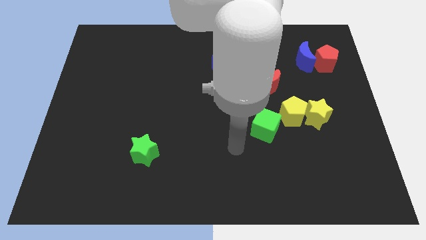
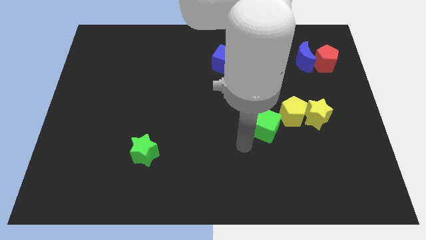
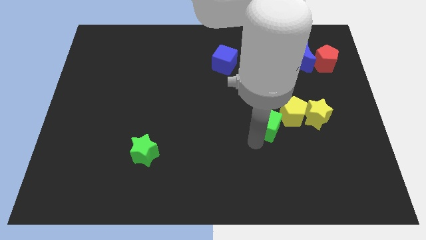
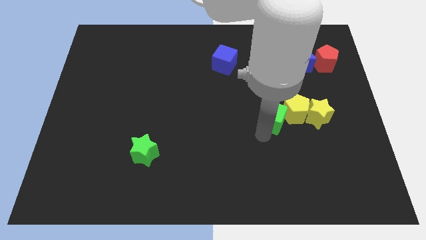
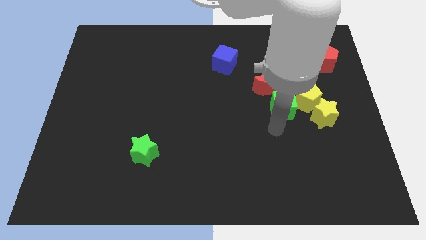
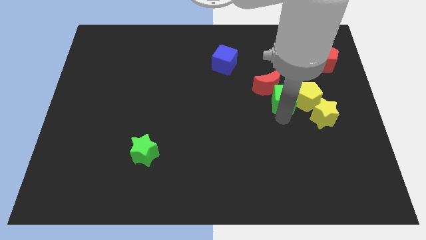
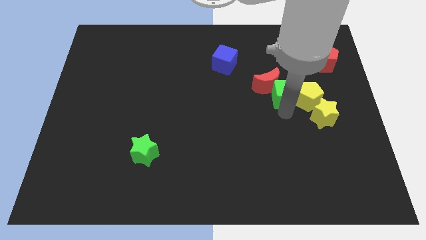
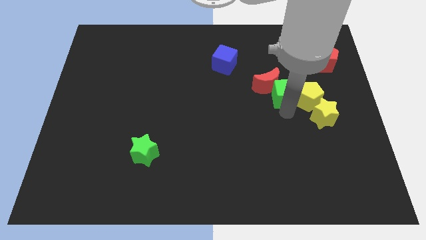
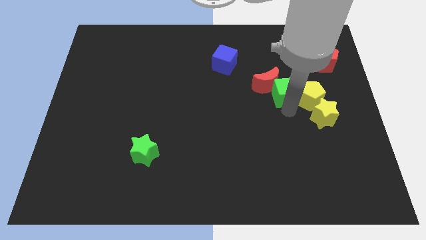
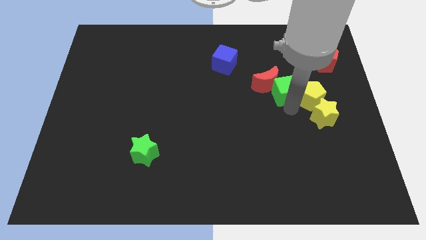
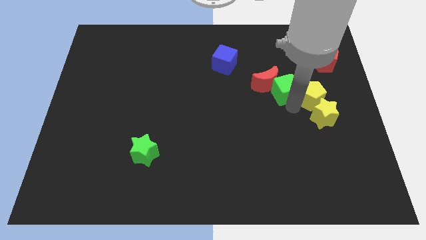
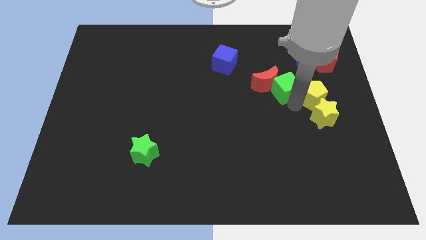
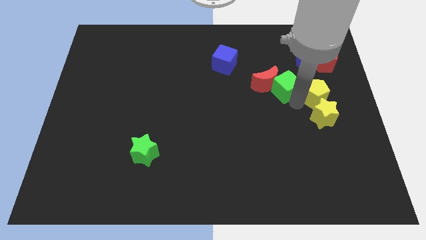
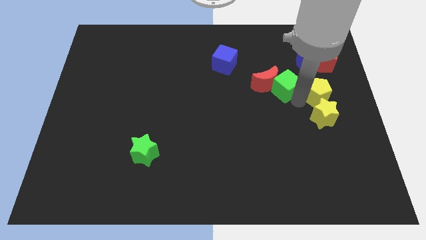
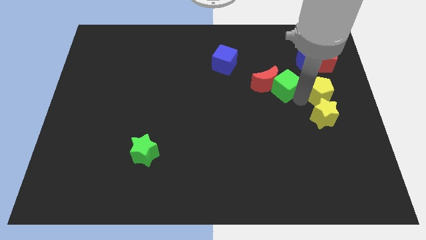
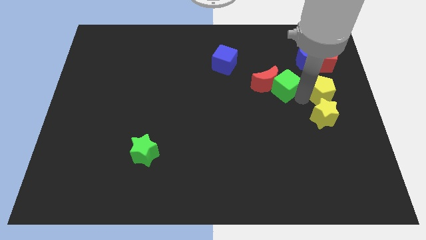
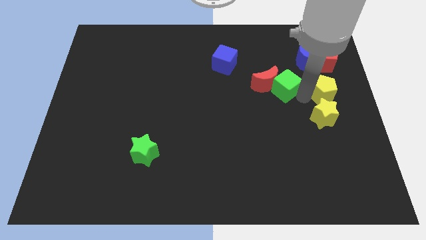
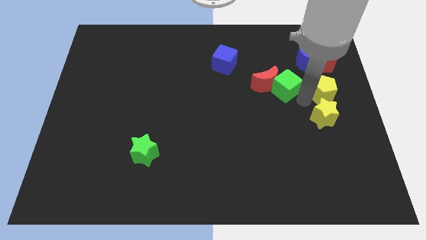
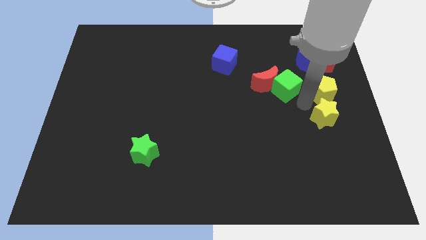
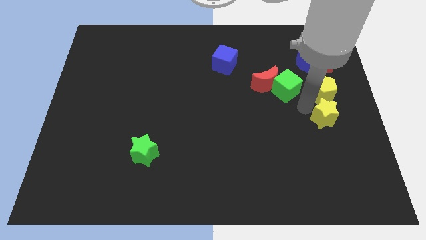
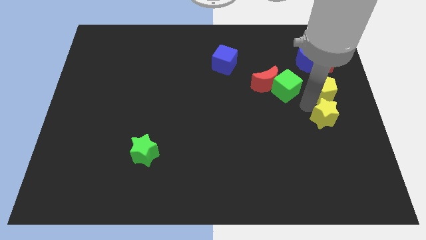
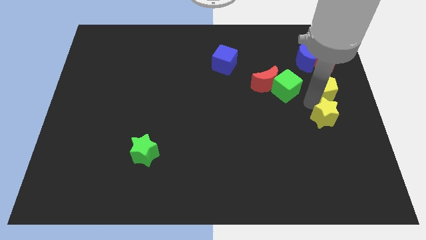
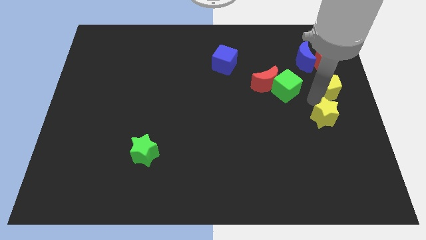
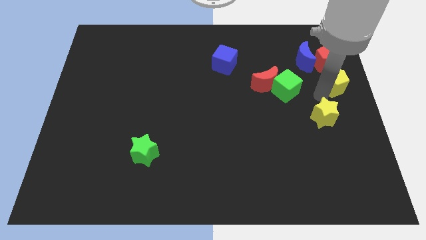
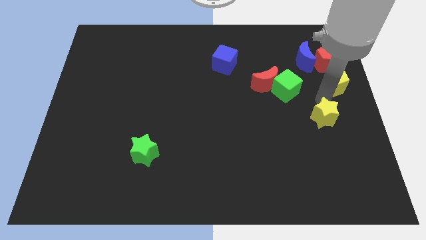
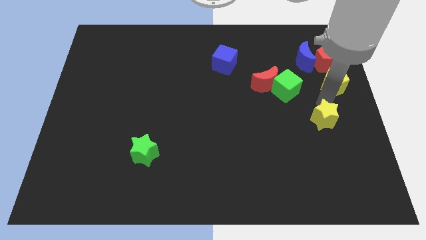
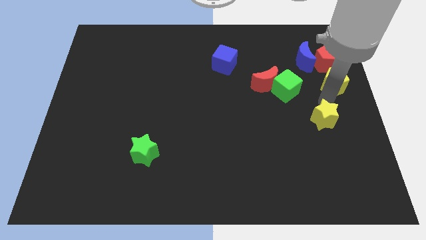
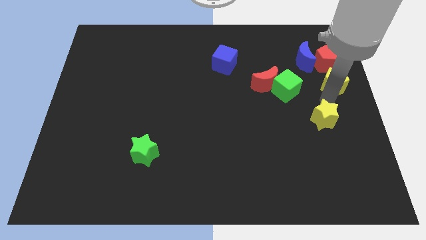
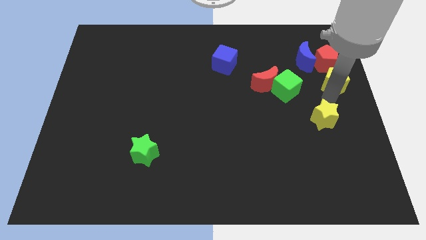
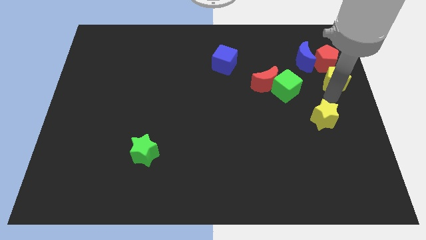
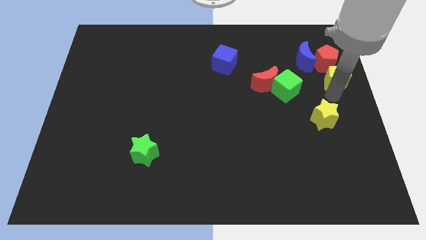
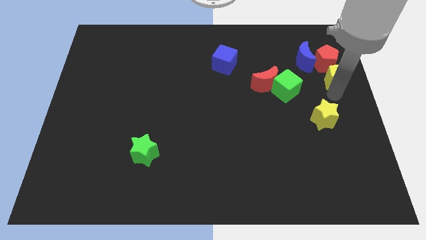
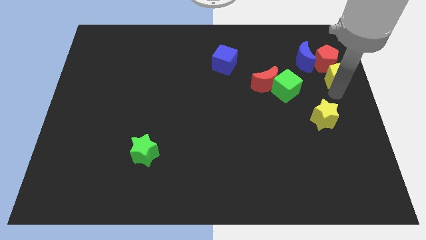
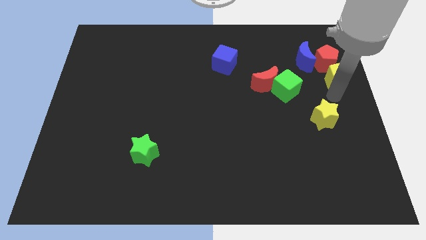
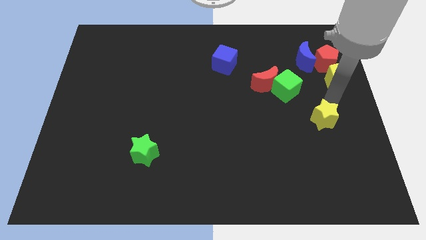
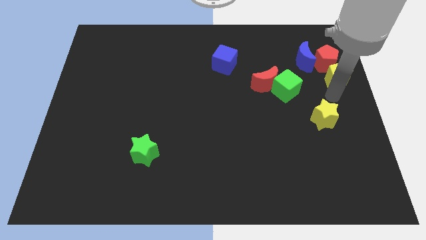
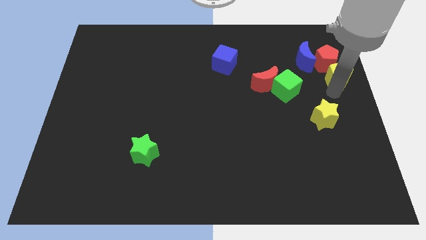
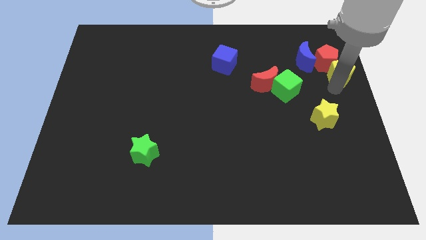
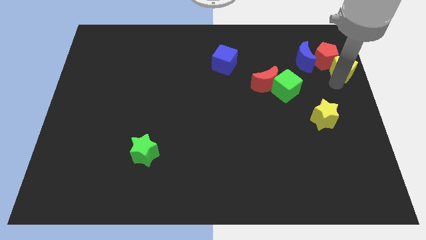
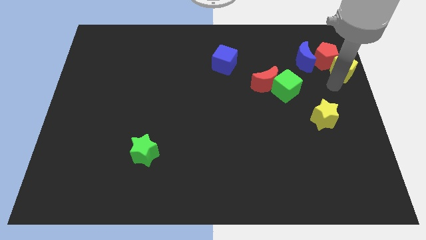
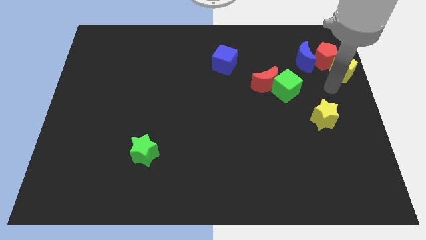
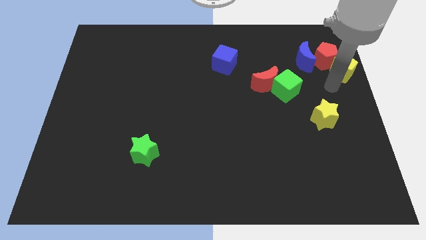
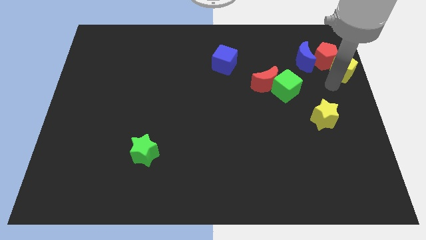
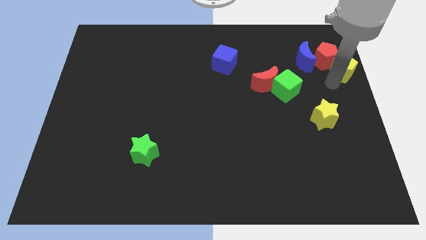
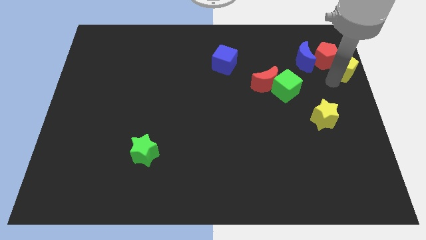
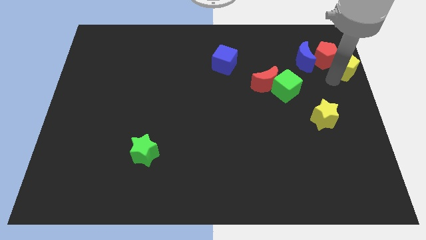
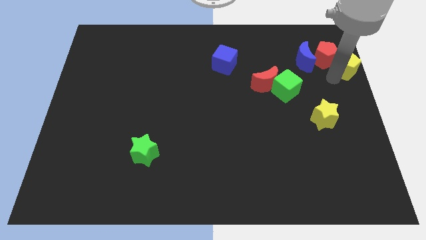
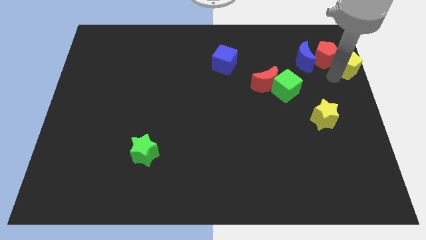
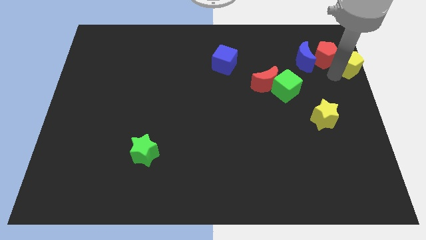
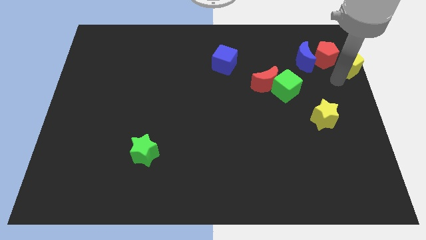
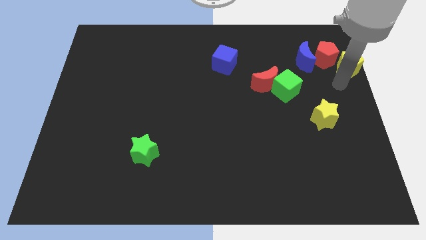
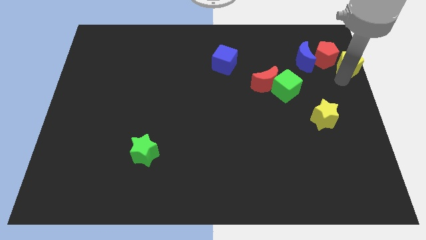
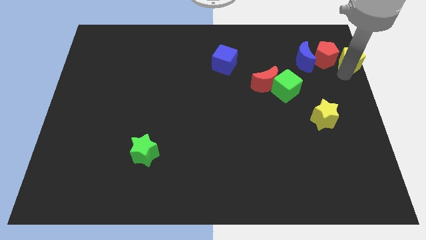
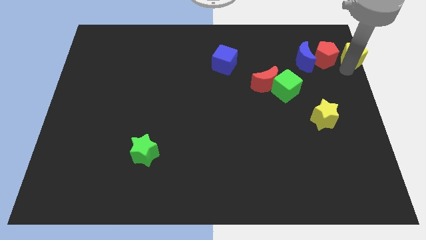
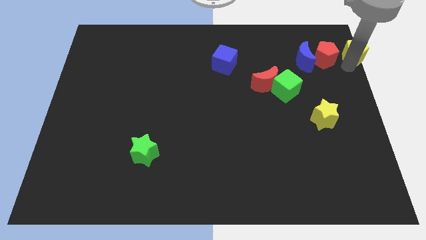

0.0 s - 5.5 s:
put the yellow pentagon to the top right corner

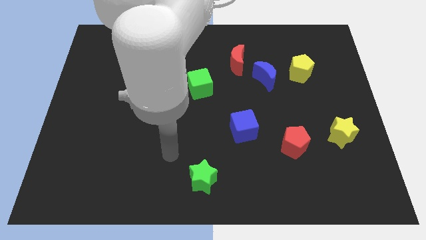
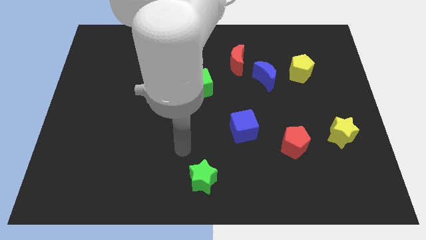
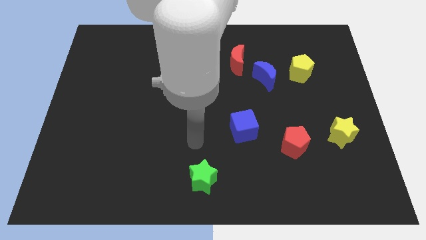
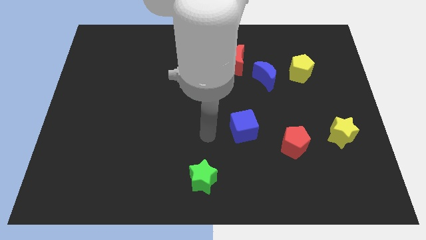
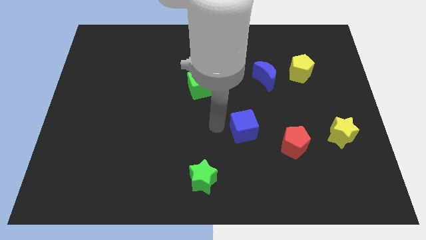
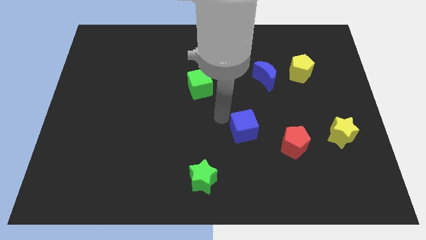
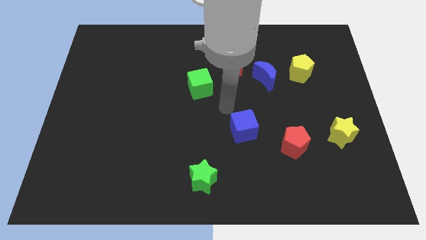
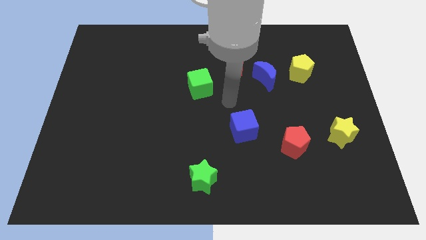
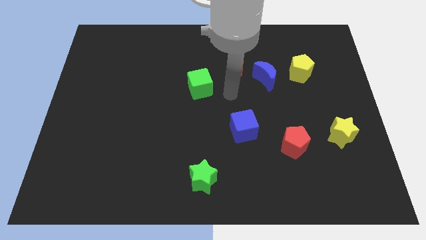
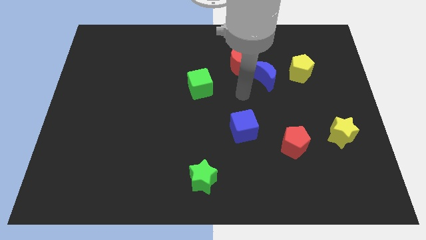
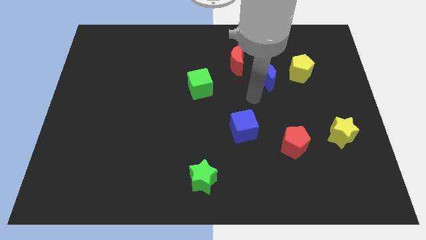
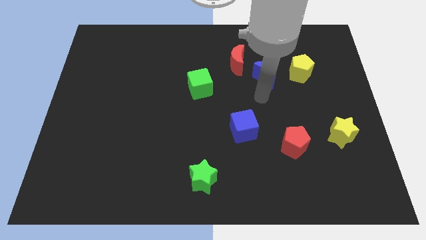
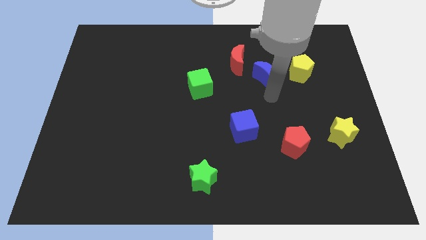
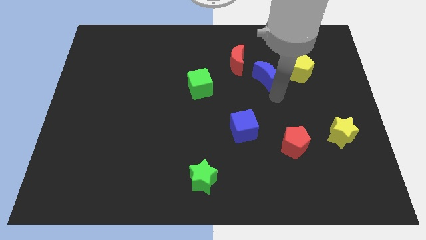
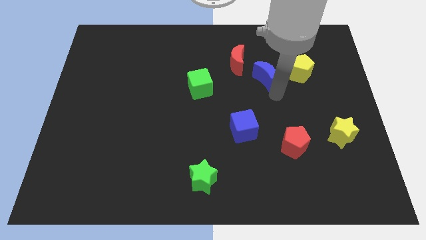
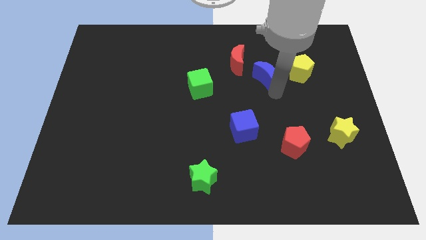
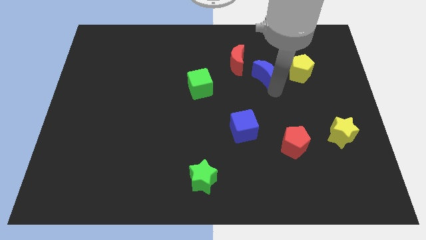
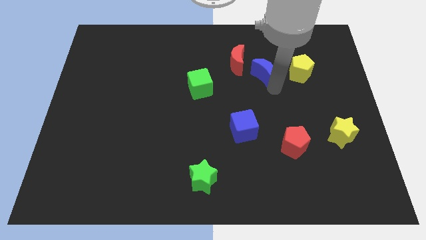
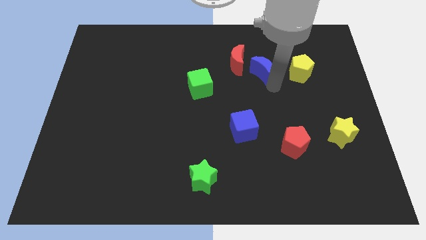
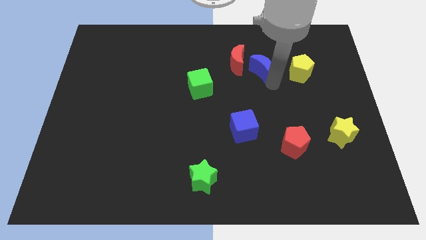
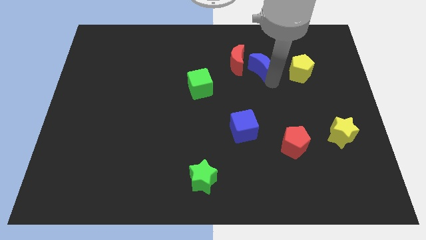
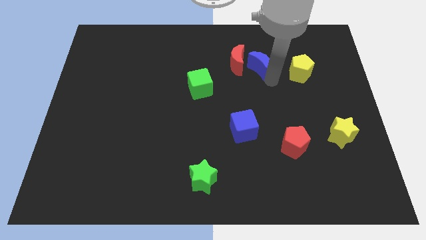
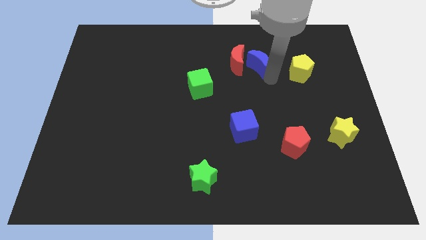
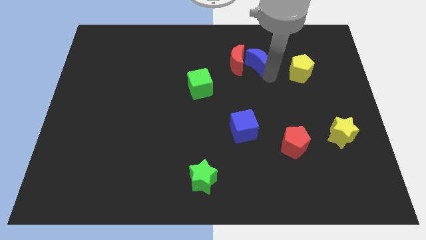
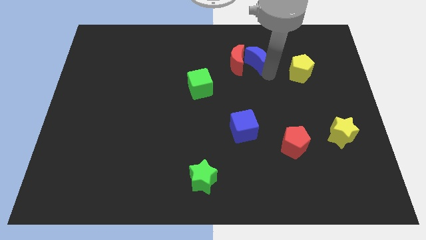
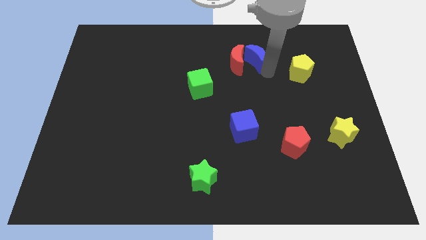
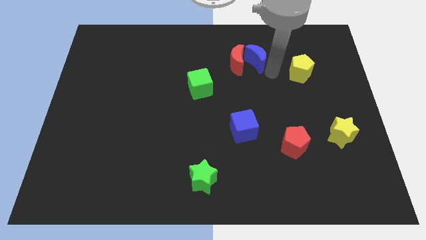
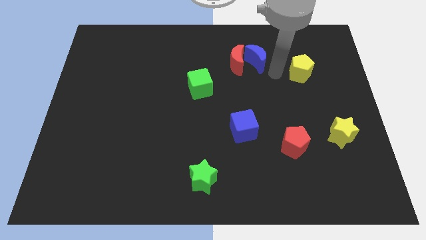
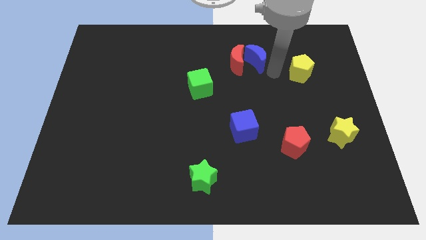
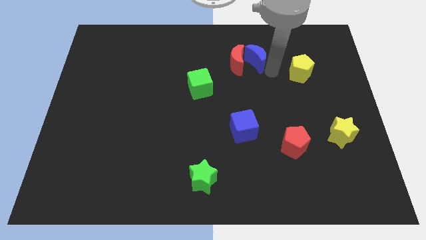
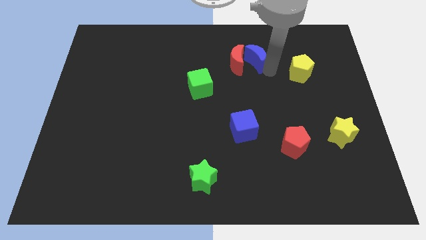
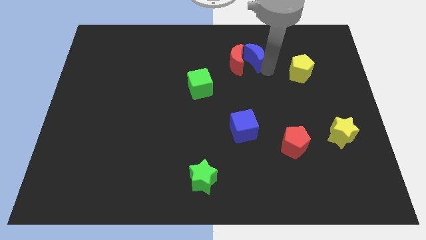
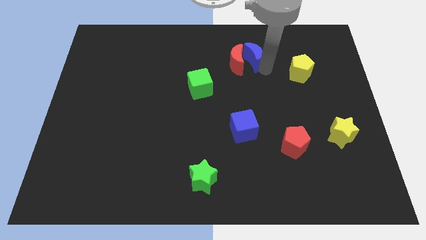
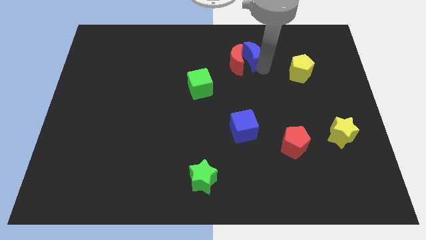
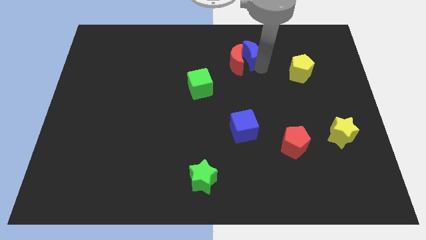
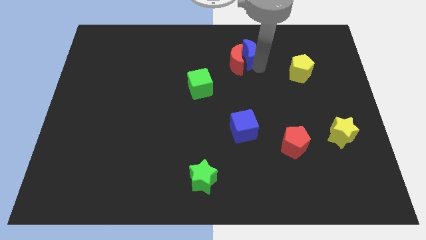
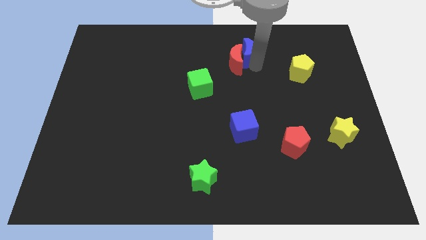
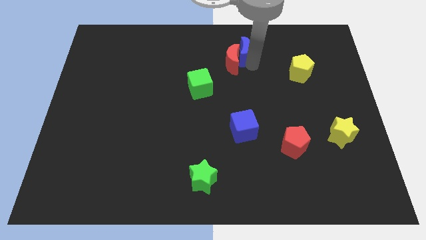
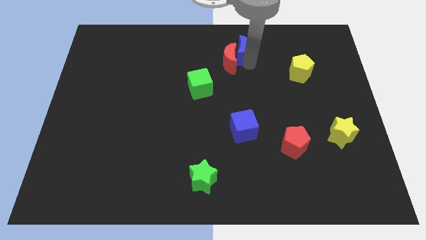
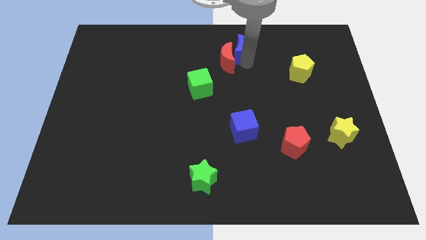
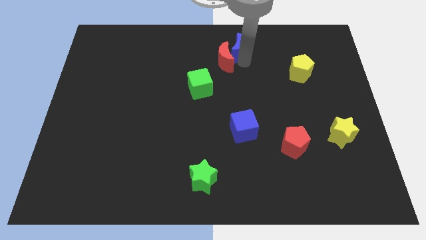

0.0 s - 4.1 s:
slide the blue moon to the top
